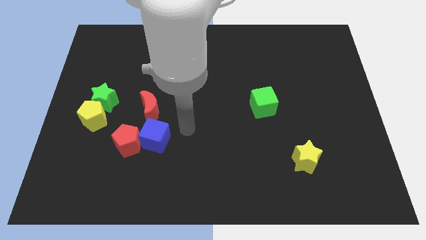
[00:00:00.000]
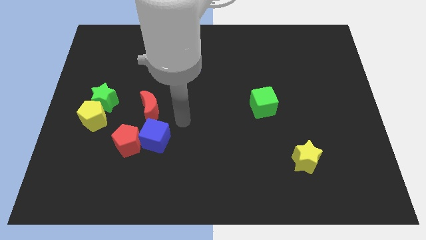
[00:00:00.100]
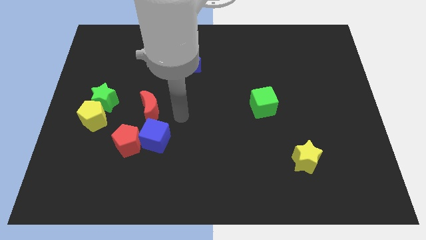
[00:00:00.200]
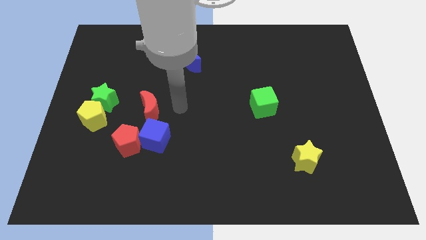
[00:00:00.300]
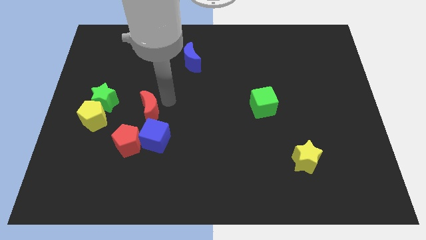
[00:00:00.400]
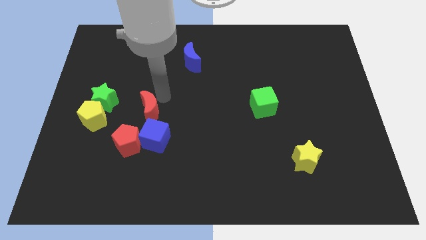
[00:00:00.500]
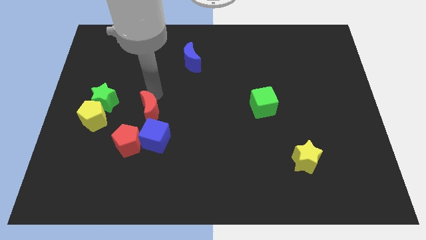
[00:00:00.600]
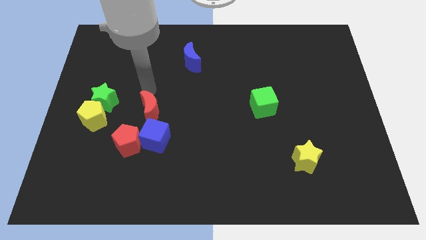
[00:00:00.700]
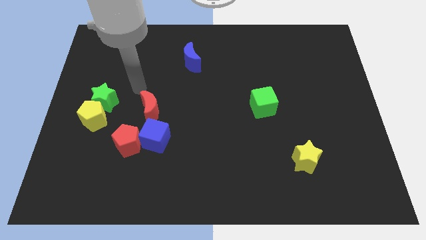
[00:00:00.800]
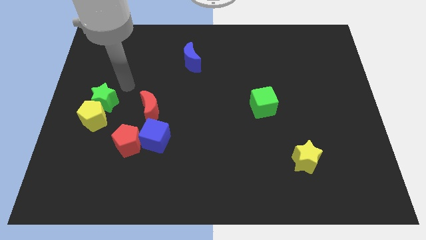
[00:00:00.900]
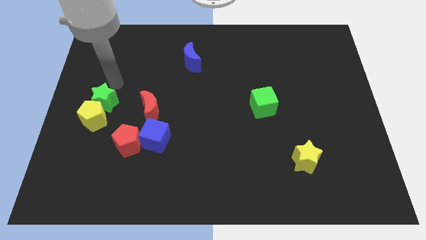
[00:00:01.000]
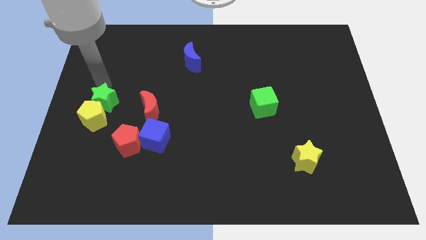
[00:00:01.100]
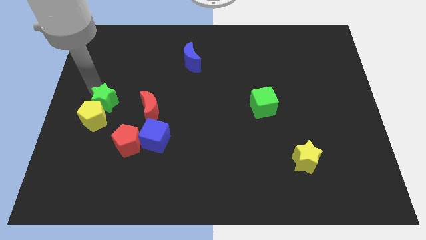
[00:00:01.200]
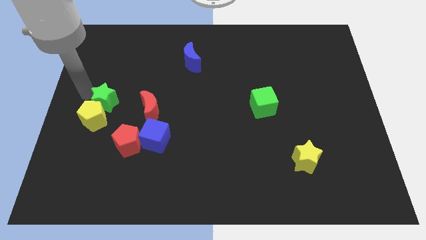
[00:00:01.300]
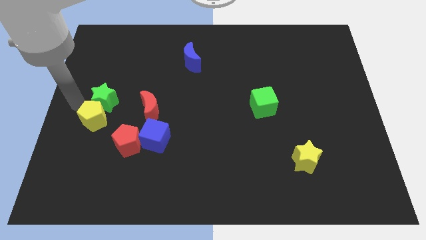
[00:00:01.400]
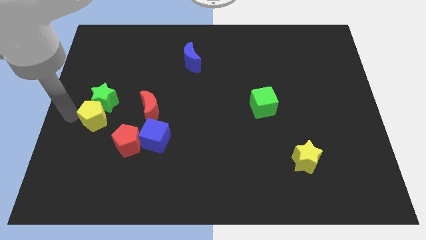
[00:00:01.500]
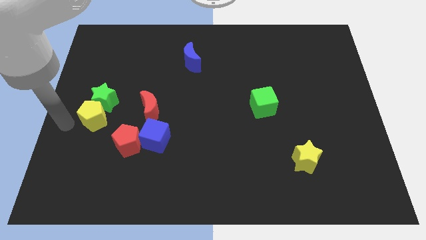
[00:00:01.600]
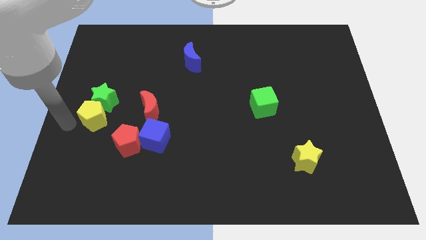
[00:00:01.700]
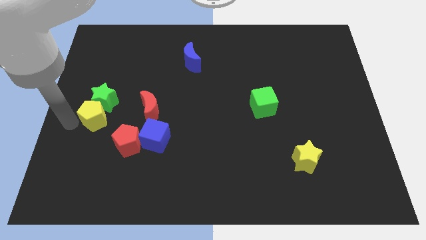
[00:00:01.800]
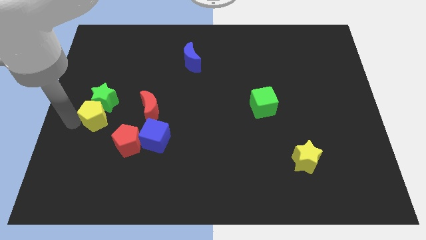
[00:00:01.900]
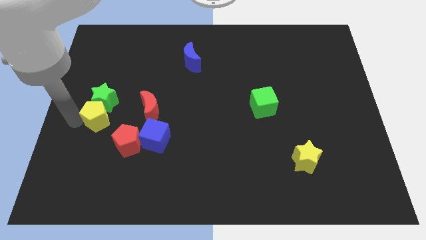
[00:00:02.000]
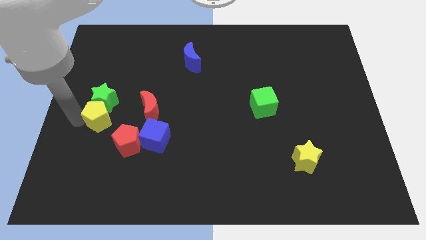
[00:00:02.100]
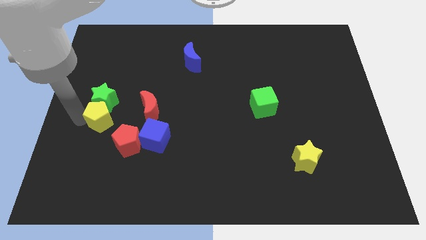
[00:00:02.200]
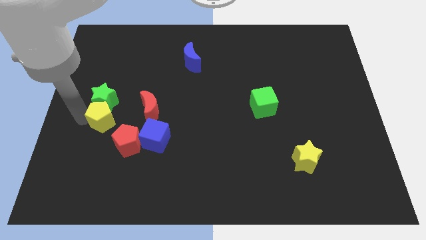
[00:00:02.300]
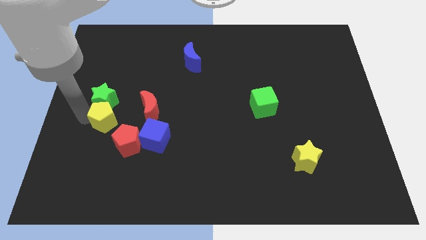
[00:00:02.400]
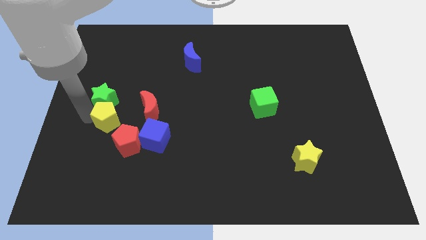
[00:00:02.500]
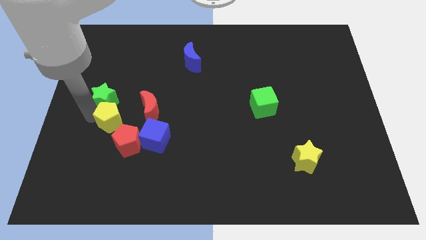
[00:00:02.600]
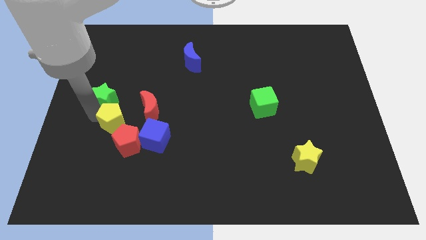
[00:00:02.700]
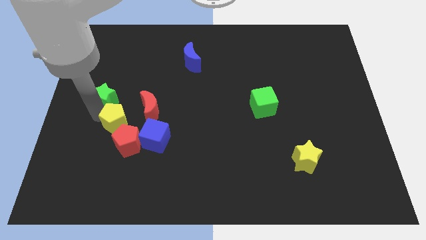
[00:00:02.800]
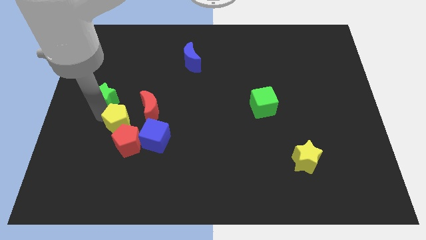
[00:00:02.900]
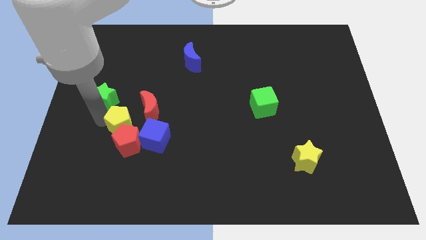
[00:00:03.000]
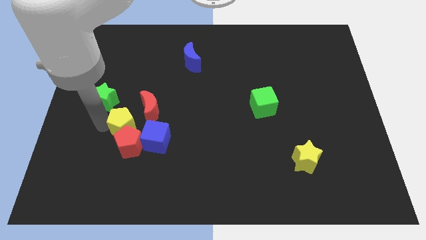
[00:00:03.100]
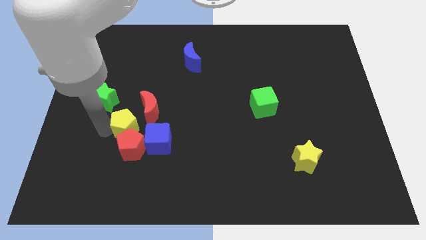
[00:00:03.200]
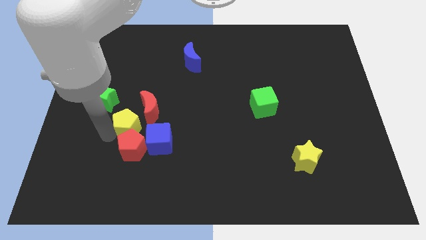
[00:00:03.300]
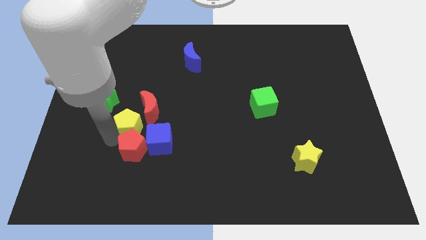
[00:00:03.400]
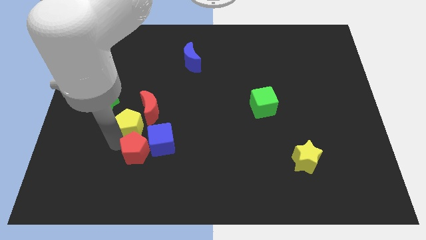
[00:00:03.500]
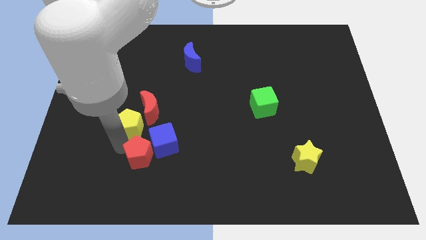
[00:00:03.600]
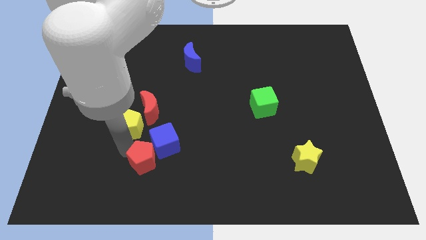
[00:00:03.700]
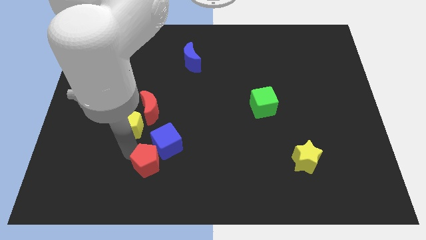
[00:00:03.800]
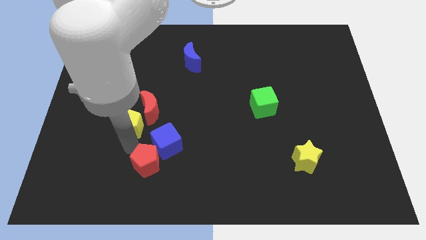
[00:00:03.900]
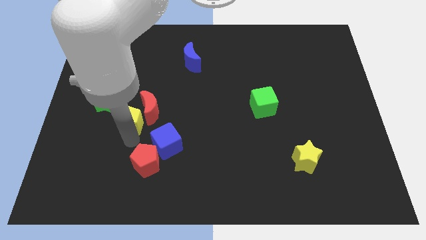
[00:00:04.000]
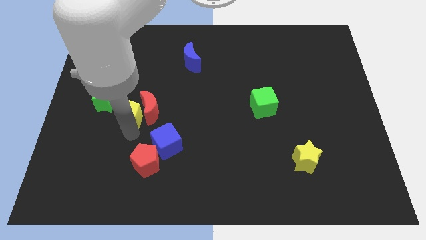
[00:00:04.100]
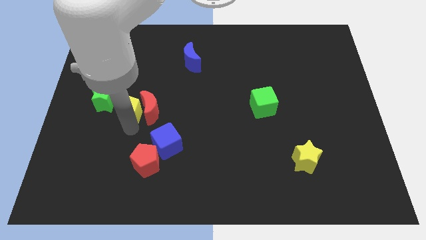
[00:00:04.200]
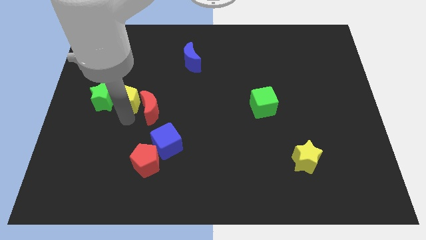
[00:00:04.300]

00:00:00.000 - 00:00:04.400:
push the yellow pentagon upwards and then to the right a little bit

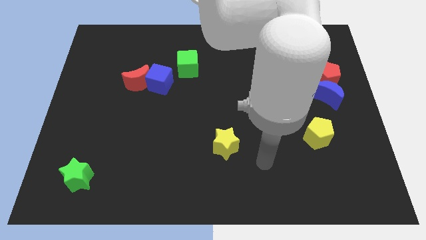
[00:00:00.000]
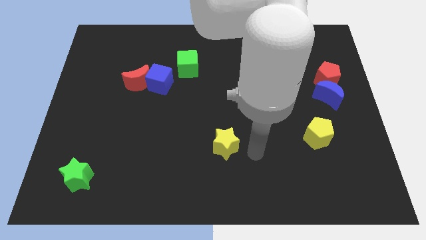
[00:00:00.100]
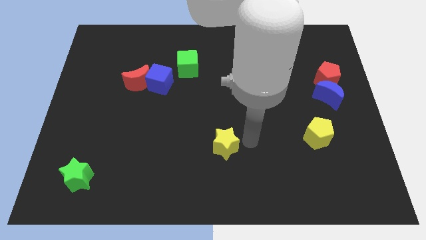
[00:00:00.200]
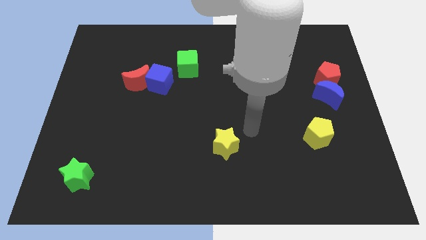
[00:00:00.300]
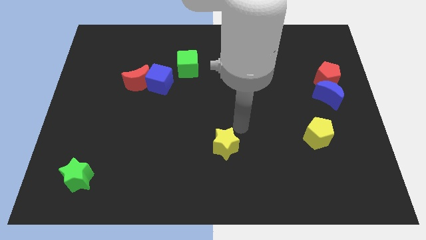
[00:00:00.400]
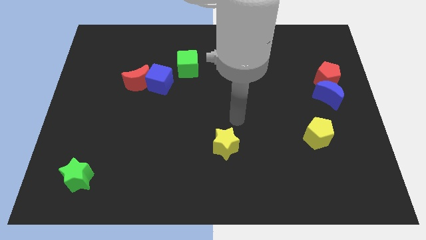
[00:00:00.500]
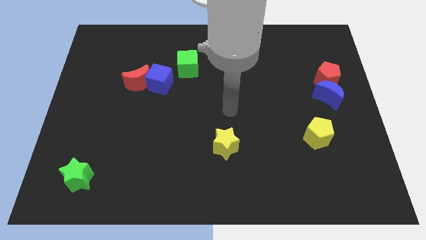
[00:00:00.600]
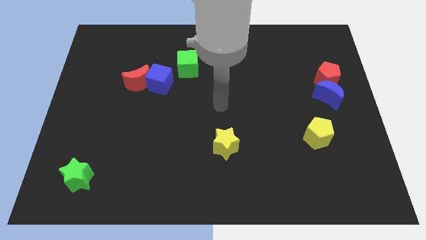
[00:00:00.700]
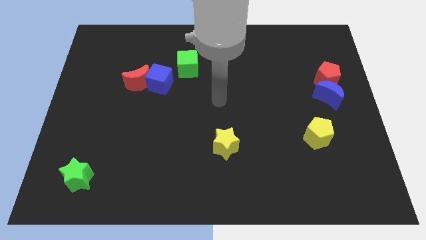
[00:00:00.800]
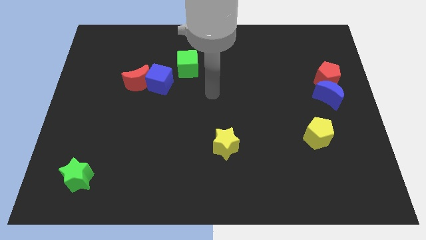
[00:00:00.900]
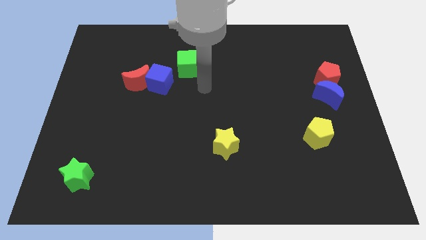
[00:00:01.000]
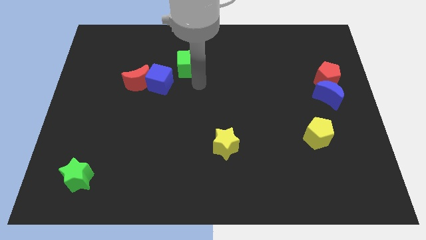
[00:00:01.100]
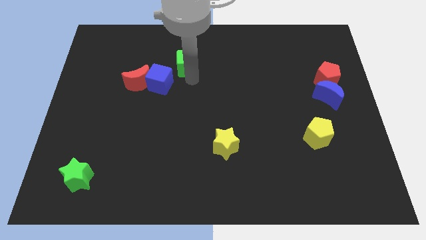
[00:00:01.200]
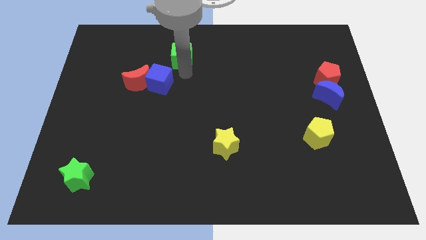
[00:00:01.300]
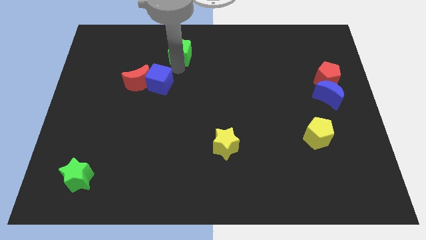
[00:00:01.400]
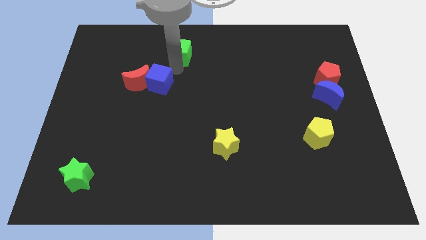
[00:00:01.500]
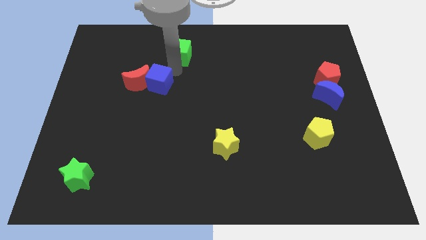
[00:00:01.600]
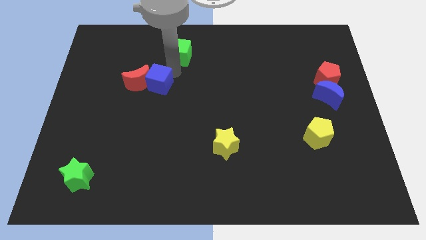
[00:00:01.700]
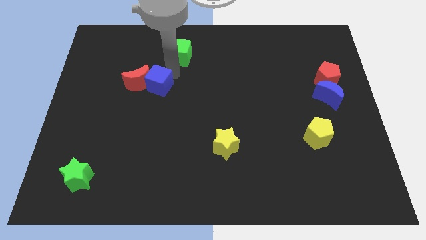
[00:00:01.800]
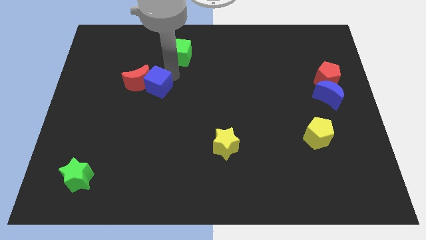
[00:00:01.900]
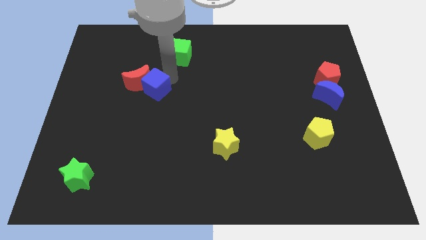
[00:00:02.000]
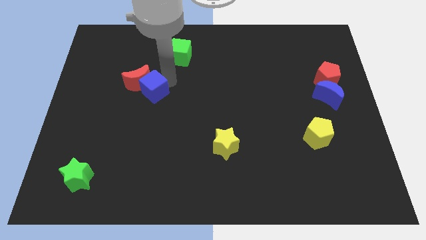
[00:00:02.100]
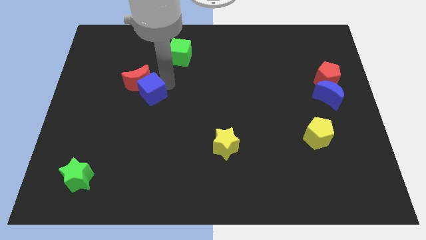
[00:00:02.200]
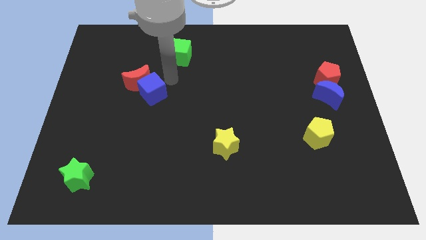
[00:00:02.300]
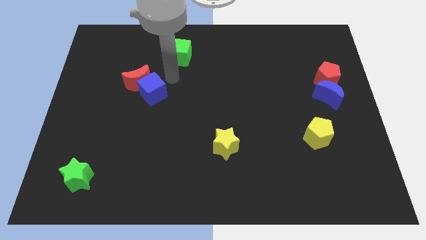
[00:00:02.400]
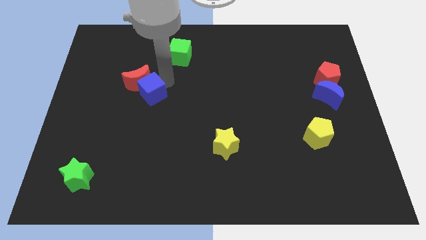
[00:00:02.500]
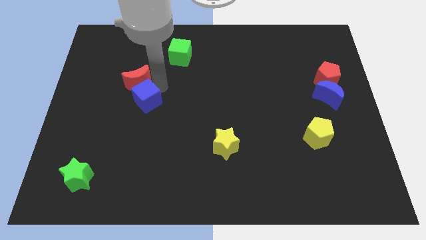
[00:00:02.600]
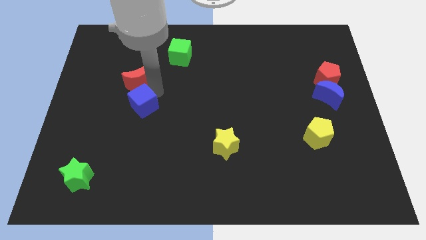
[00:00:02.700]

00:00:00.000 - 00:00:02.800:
slightly push the blue cube diagonally down and to the left

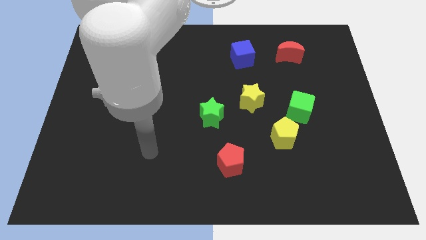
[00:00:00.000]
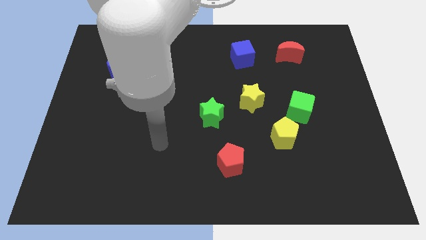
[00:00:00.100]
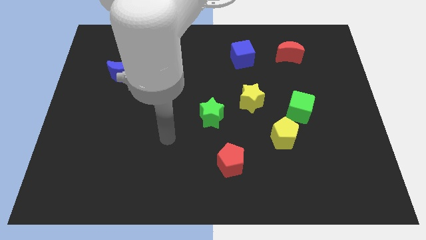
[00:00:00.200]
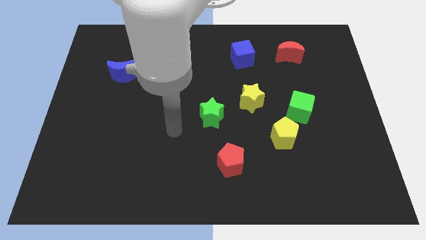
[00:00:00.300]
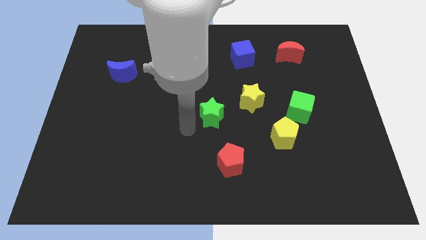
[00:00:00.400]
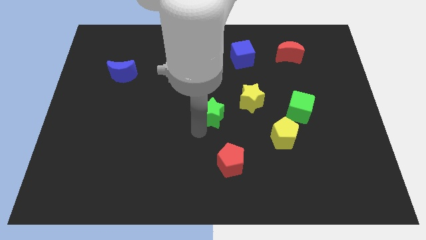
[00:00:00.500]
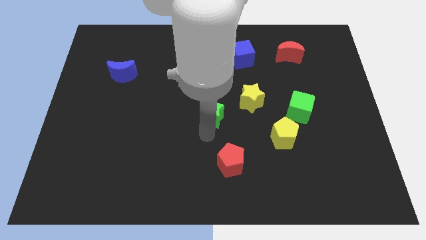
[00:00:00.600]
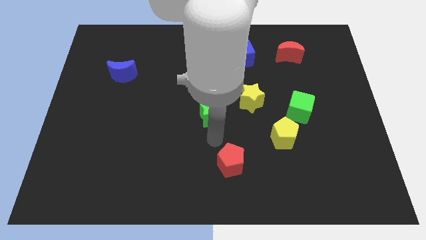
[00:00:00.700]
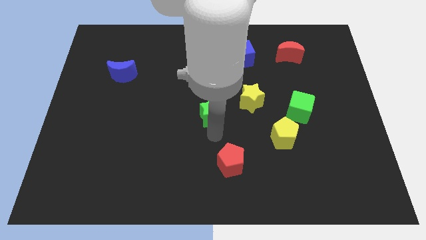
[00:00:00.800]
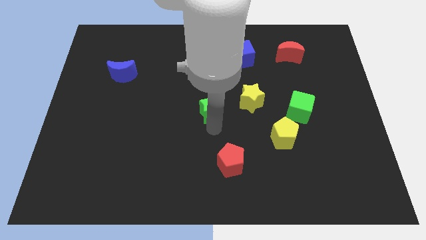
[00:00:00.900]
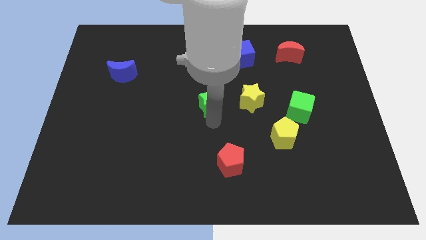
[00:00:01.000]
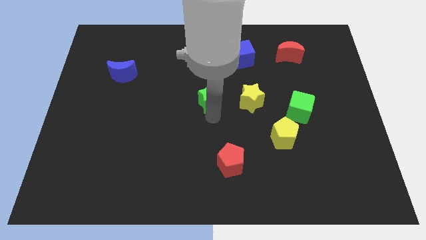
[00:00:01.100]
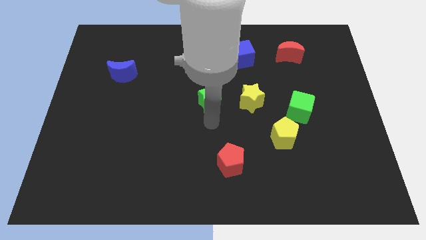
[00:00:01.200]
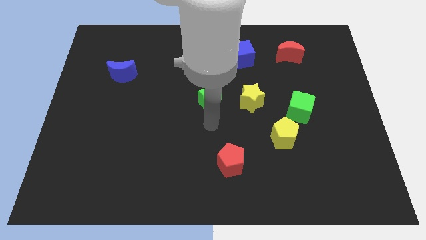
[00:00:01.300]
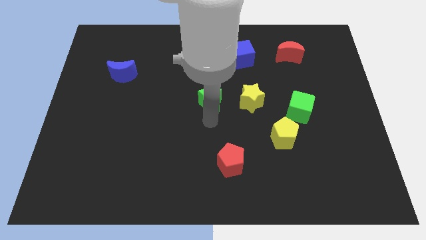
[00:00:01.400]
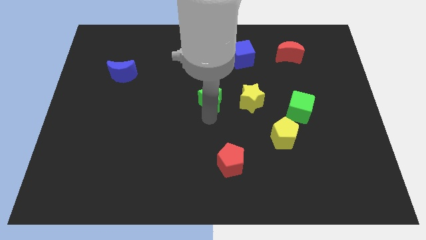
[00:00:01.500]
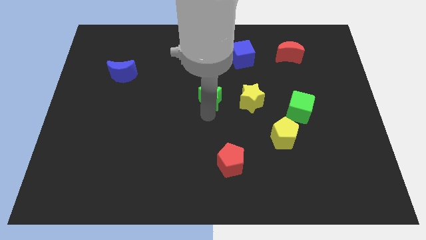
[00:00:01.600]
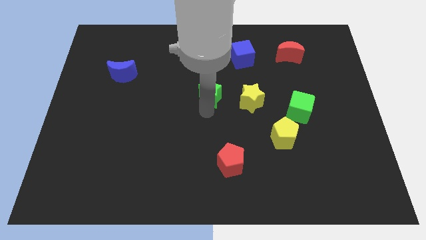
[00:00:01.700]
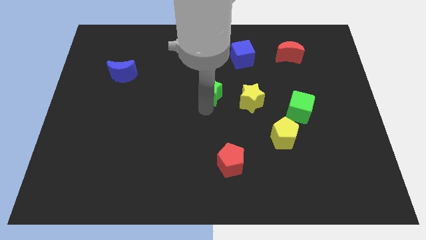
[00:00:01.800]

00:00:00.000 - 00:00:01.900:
move the green star upwards a little
